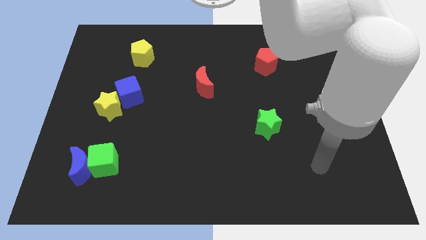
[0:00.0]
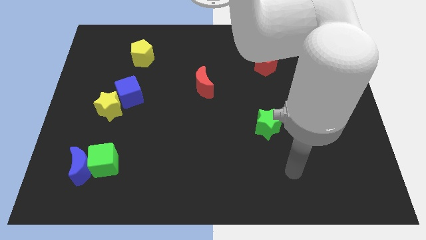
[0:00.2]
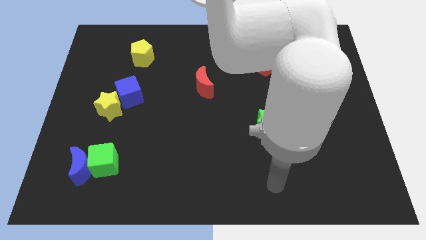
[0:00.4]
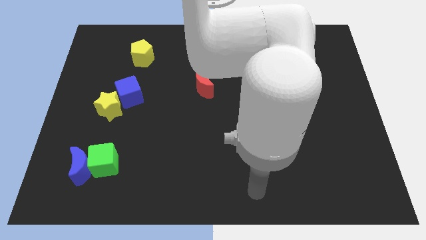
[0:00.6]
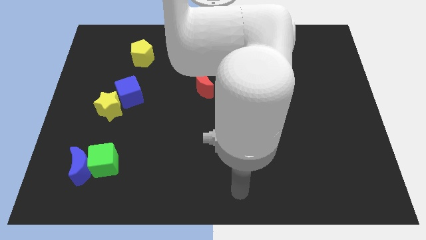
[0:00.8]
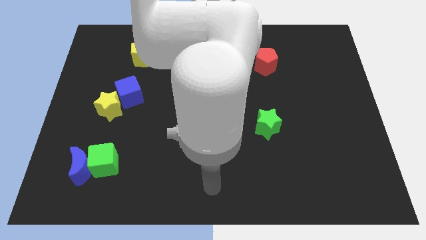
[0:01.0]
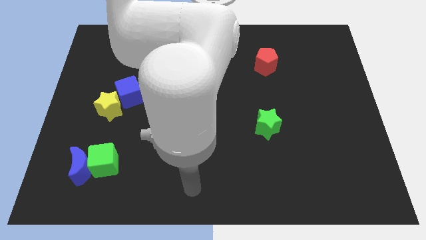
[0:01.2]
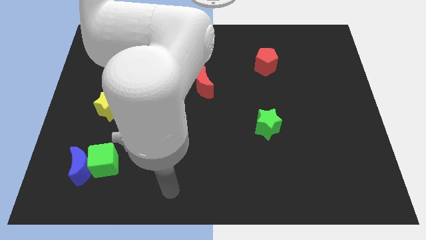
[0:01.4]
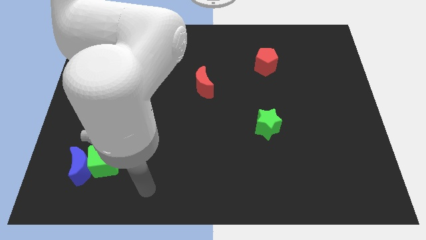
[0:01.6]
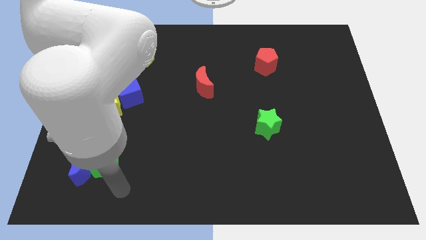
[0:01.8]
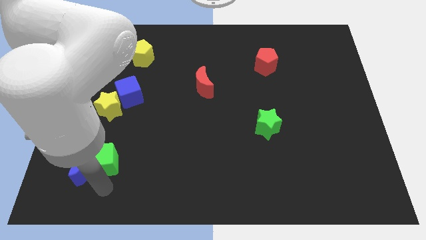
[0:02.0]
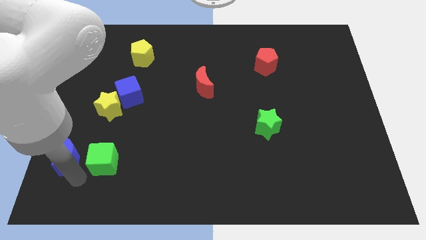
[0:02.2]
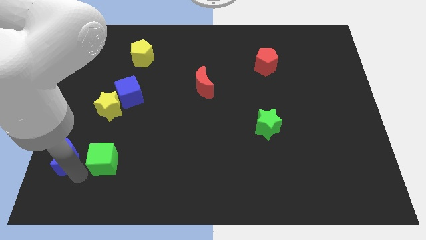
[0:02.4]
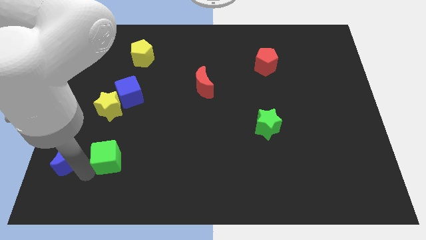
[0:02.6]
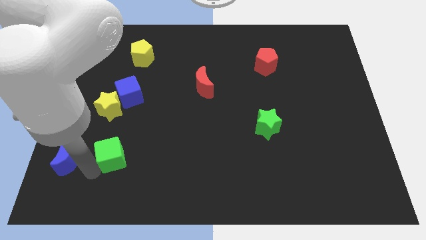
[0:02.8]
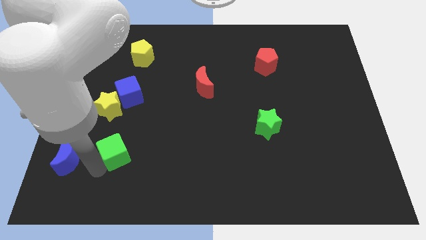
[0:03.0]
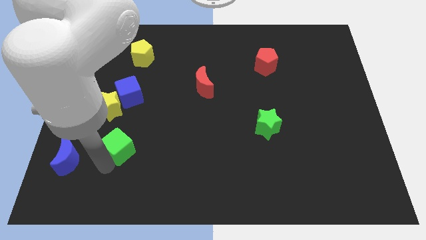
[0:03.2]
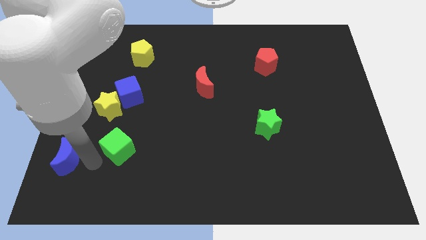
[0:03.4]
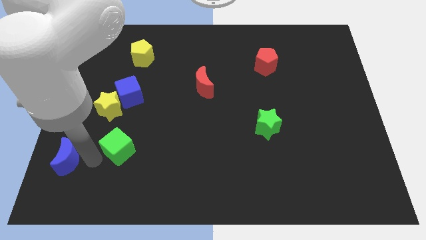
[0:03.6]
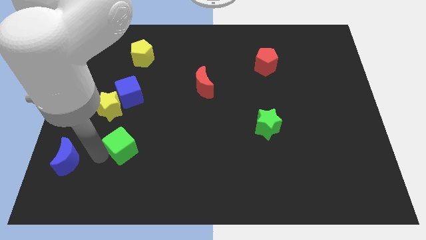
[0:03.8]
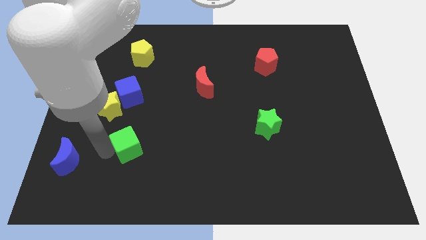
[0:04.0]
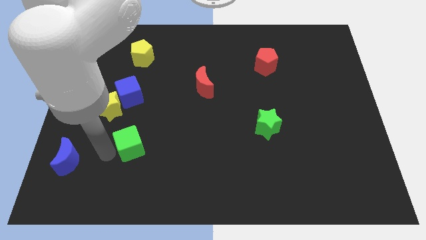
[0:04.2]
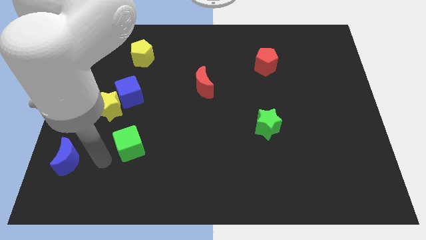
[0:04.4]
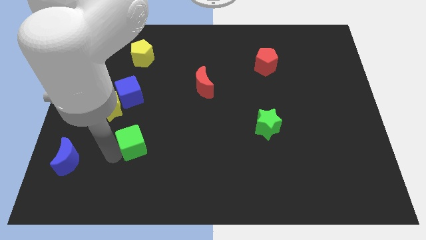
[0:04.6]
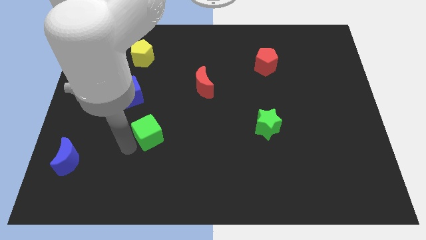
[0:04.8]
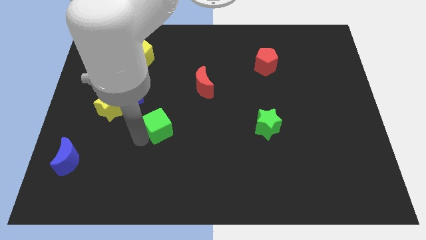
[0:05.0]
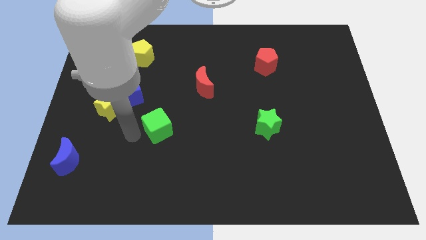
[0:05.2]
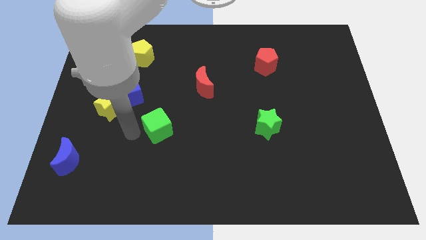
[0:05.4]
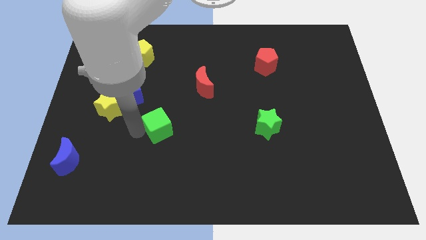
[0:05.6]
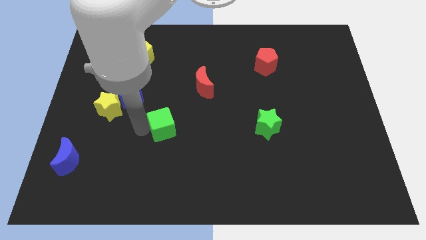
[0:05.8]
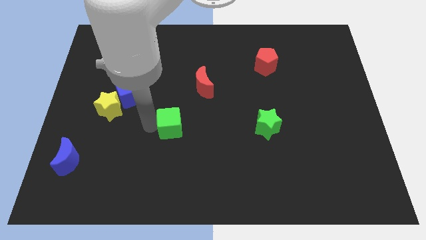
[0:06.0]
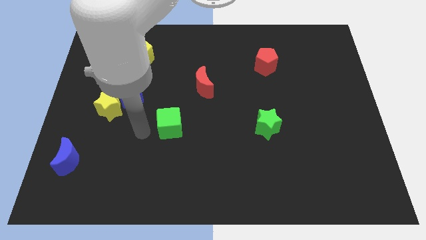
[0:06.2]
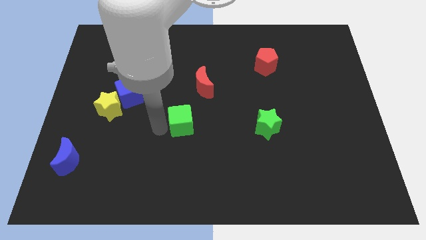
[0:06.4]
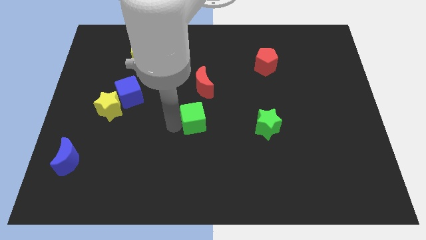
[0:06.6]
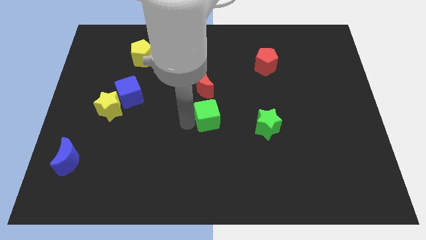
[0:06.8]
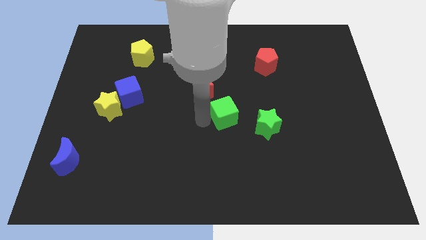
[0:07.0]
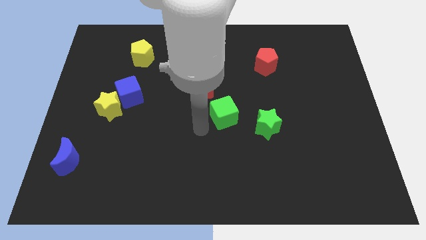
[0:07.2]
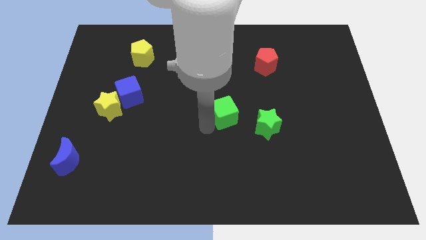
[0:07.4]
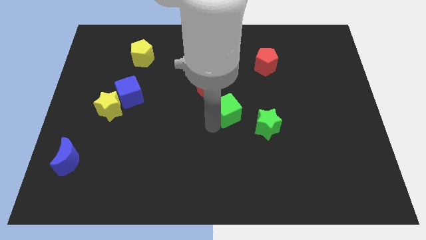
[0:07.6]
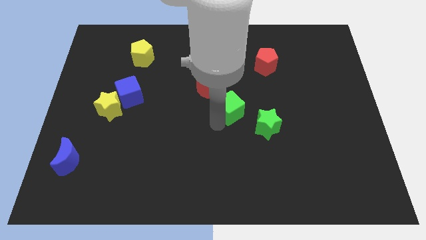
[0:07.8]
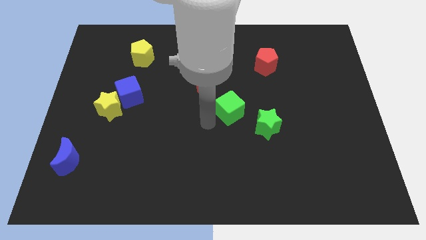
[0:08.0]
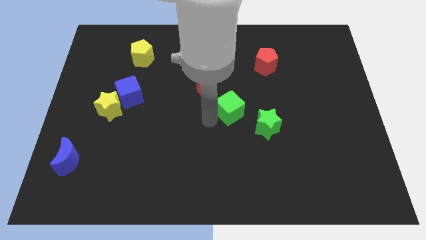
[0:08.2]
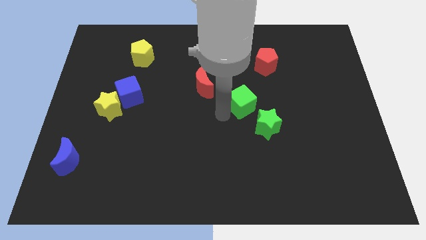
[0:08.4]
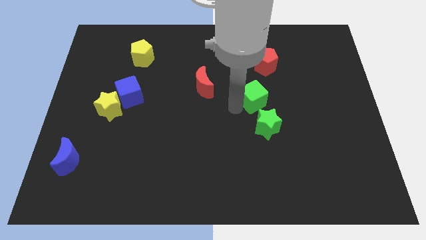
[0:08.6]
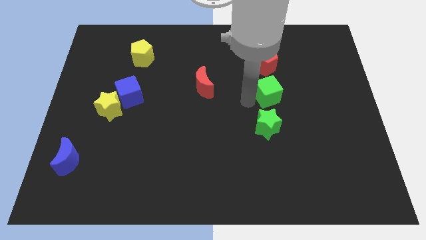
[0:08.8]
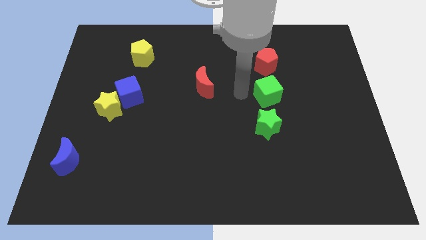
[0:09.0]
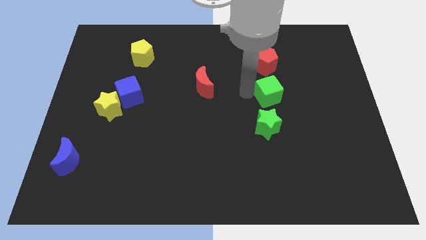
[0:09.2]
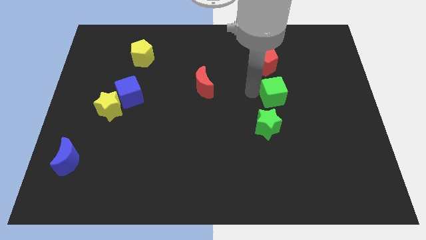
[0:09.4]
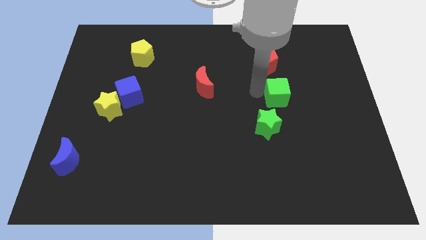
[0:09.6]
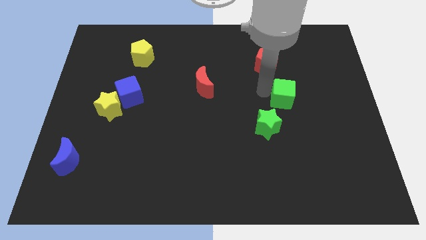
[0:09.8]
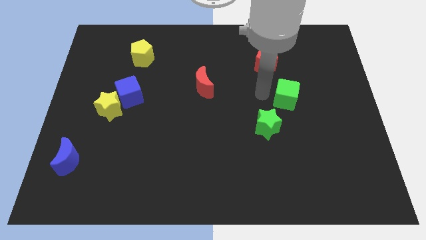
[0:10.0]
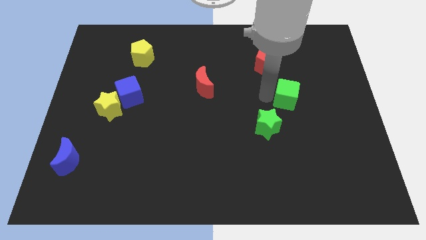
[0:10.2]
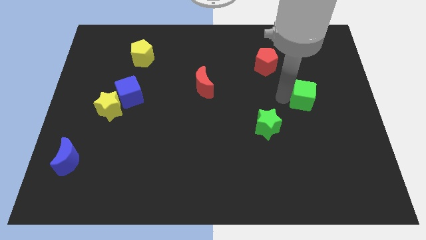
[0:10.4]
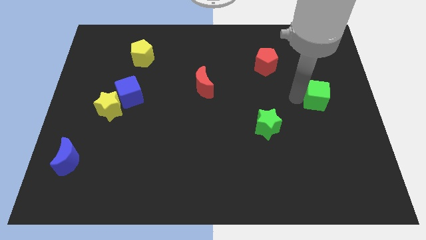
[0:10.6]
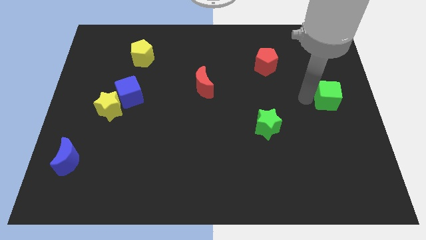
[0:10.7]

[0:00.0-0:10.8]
put the green cube to the right side

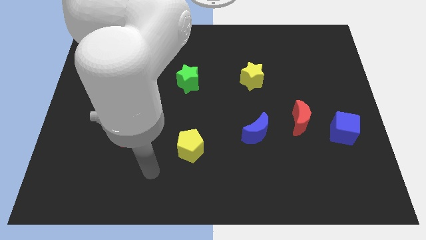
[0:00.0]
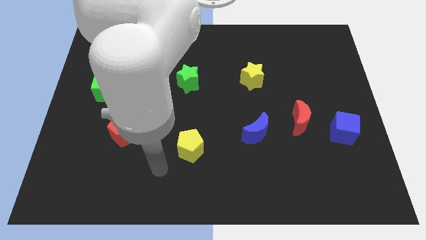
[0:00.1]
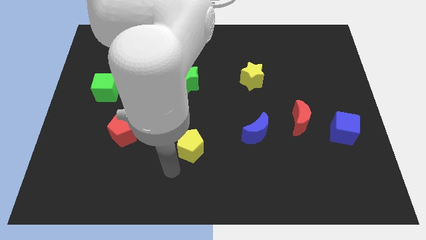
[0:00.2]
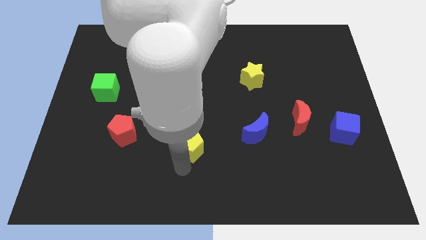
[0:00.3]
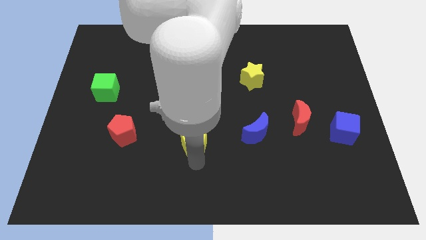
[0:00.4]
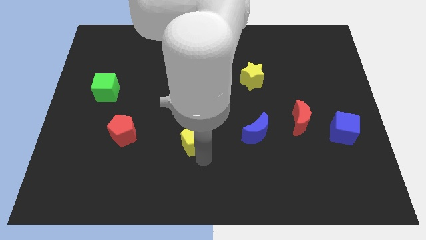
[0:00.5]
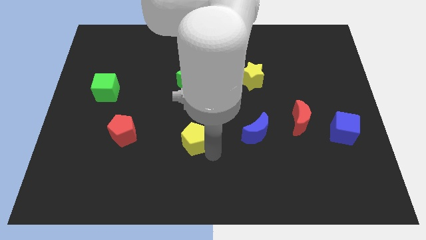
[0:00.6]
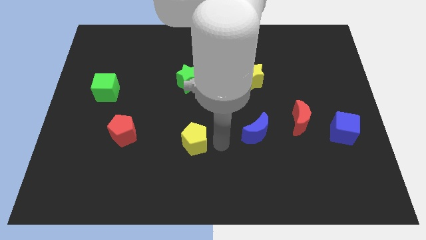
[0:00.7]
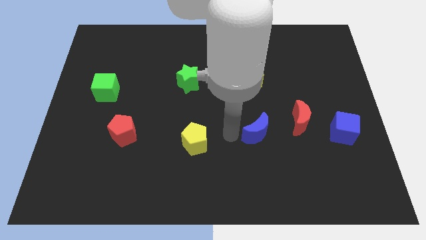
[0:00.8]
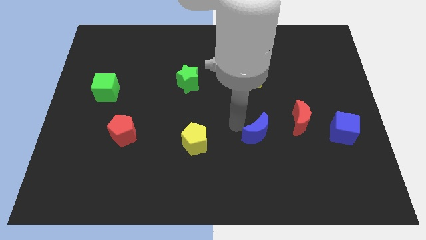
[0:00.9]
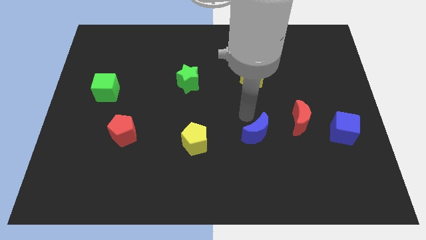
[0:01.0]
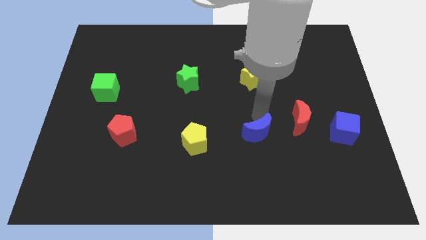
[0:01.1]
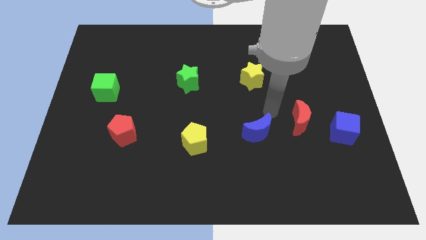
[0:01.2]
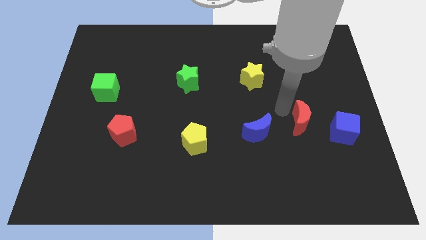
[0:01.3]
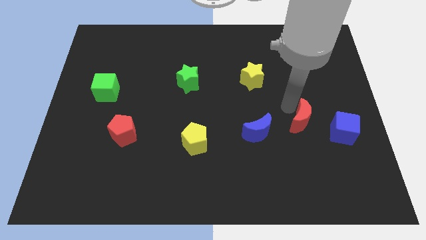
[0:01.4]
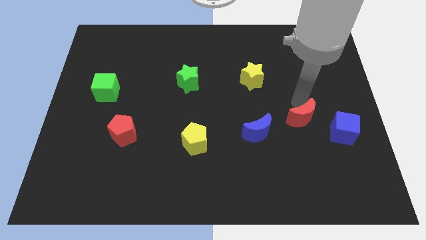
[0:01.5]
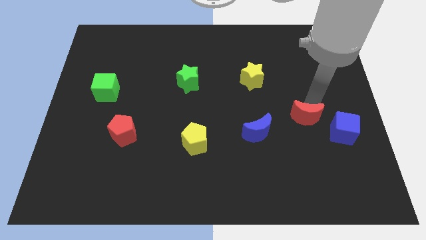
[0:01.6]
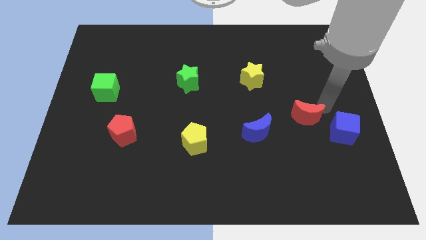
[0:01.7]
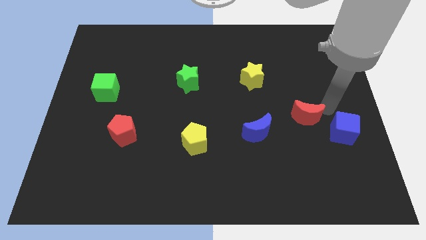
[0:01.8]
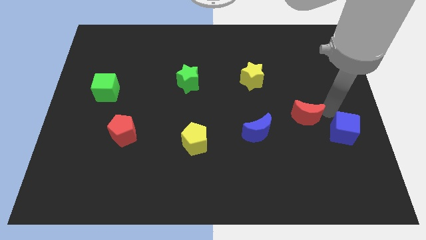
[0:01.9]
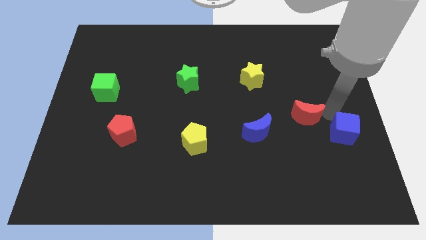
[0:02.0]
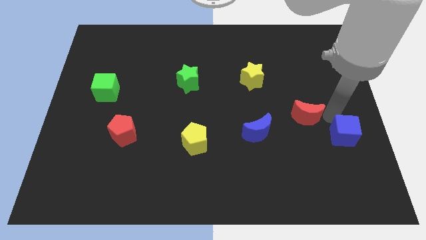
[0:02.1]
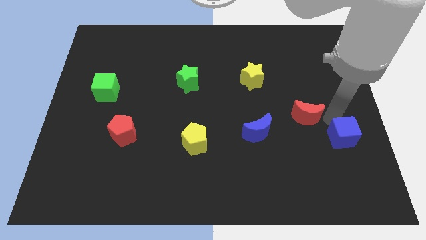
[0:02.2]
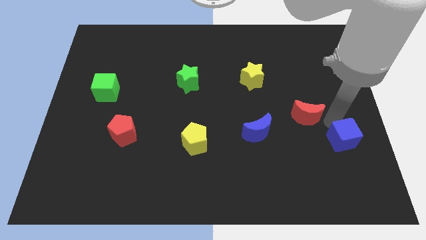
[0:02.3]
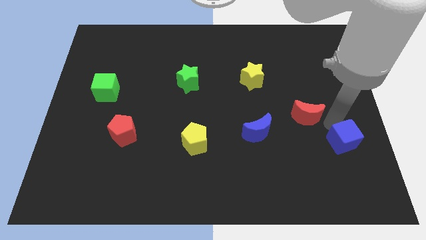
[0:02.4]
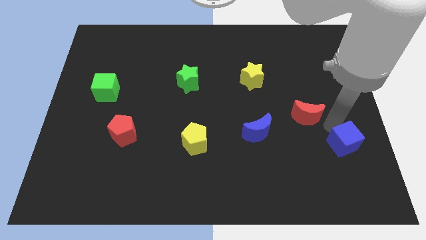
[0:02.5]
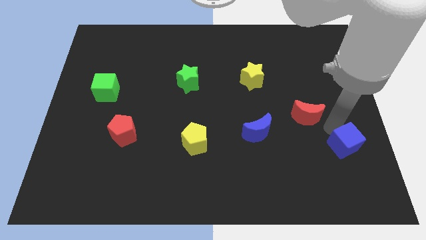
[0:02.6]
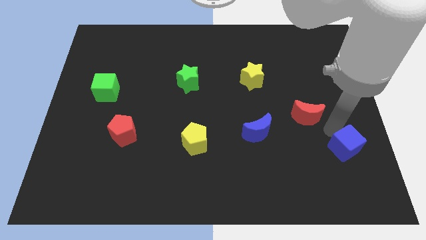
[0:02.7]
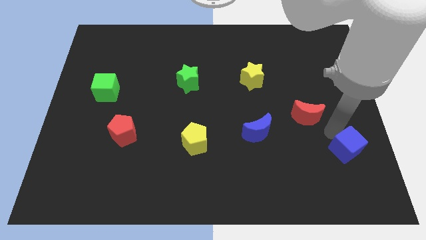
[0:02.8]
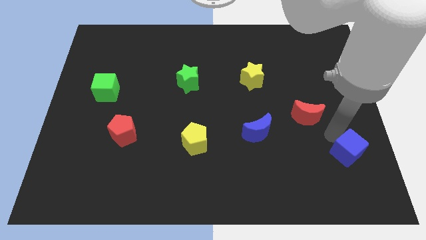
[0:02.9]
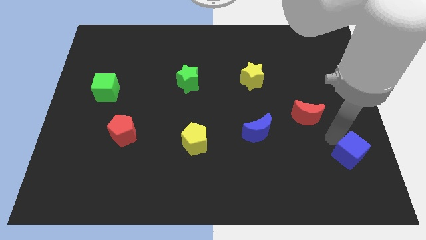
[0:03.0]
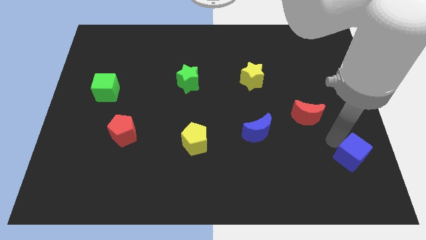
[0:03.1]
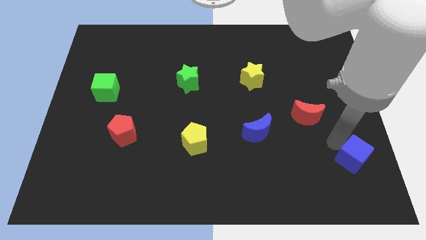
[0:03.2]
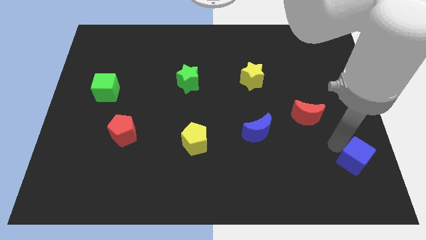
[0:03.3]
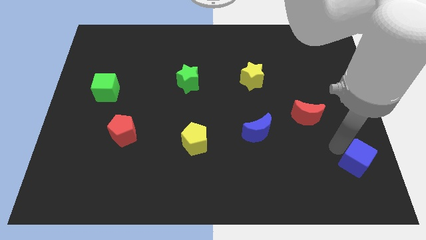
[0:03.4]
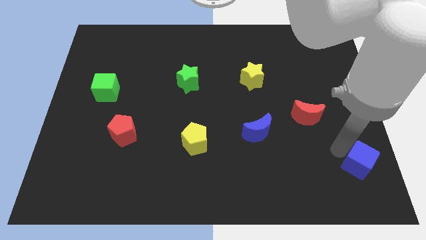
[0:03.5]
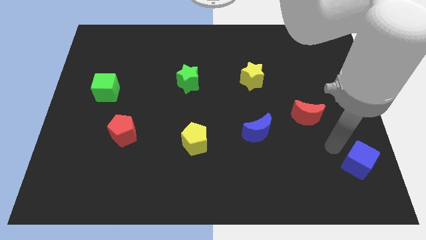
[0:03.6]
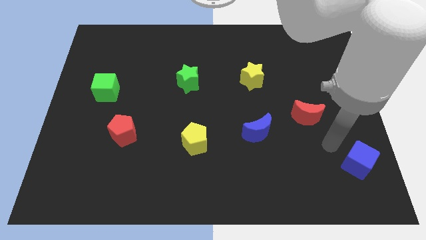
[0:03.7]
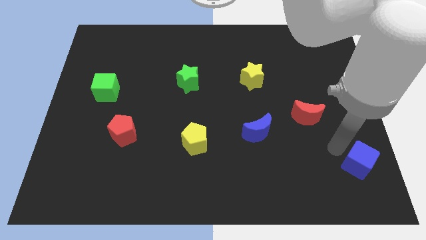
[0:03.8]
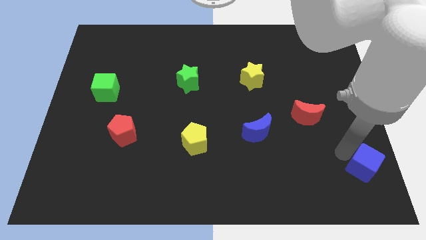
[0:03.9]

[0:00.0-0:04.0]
slide the blue cube to the bottom right of the board
